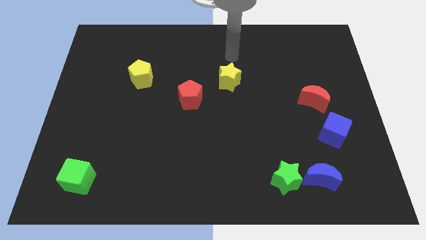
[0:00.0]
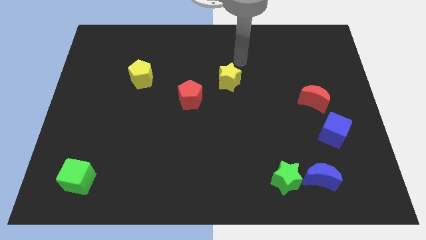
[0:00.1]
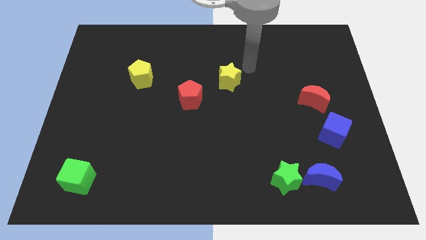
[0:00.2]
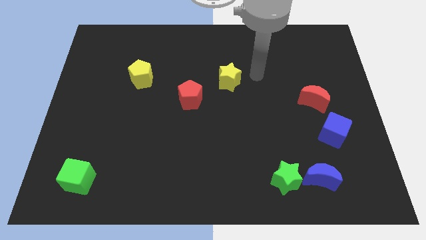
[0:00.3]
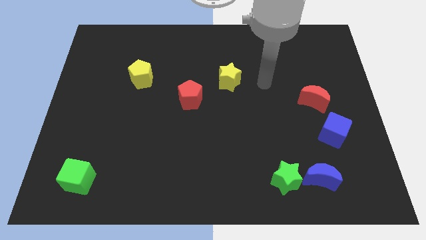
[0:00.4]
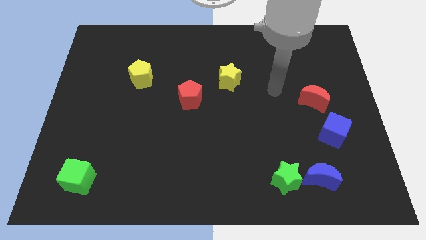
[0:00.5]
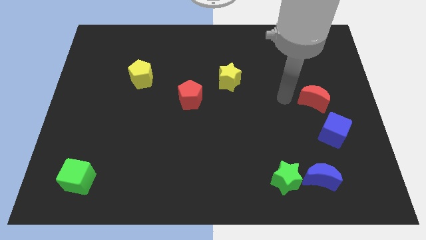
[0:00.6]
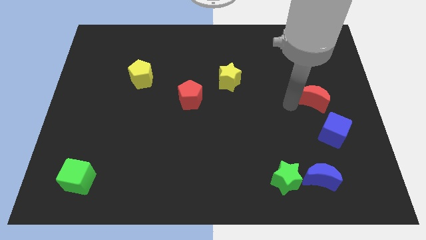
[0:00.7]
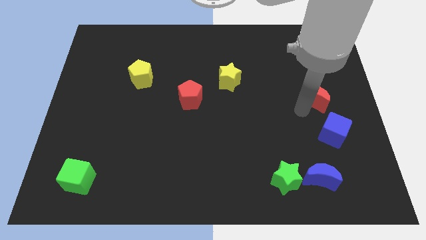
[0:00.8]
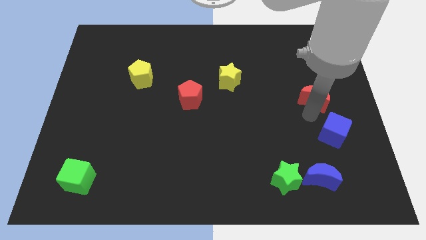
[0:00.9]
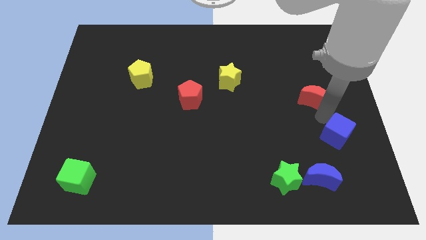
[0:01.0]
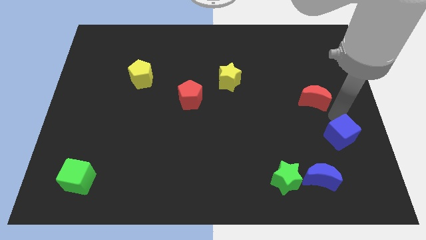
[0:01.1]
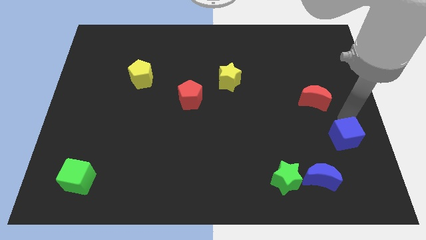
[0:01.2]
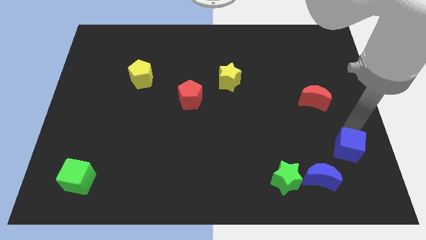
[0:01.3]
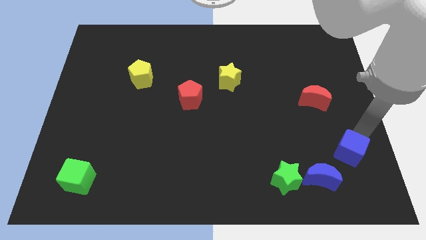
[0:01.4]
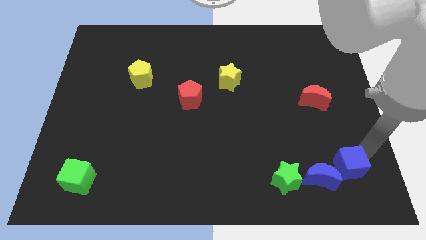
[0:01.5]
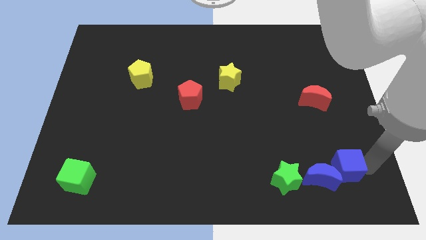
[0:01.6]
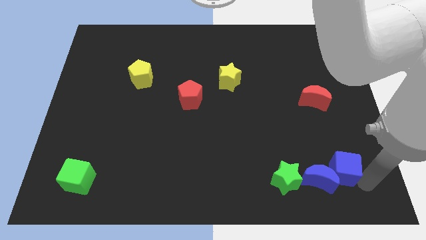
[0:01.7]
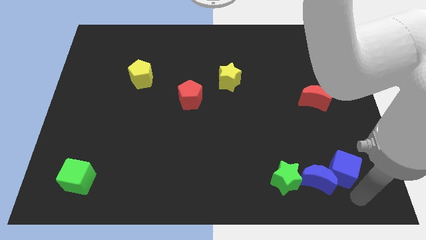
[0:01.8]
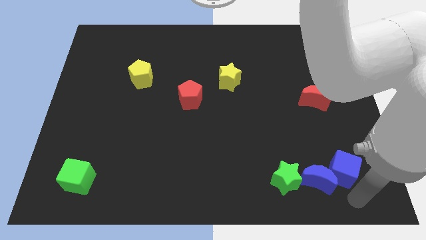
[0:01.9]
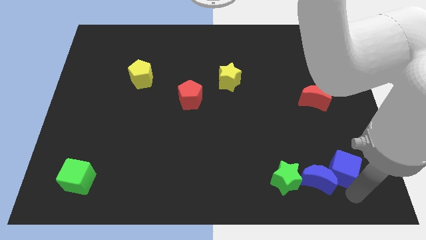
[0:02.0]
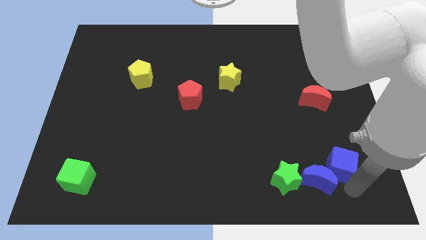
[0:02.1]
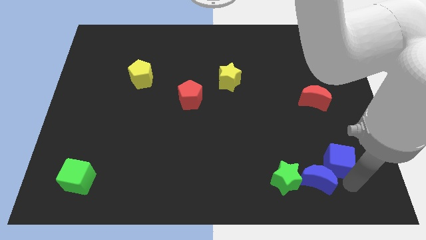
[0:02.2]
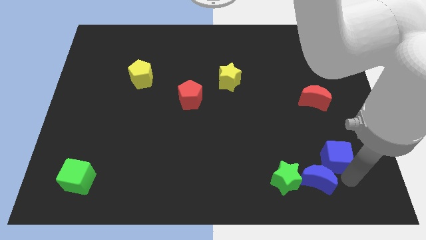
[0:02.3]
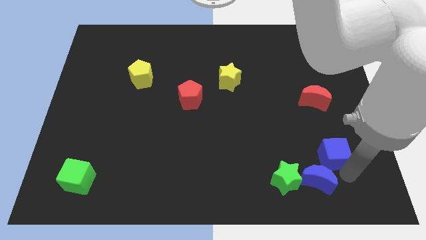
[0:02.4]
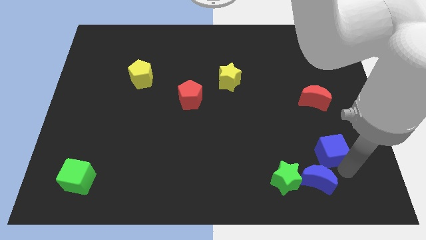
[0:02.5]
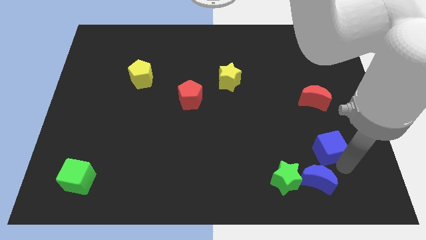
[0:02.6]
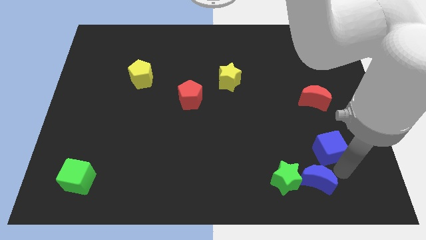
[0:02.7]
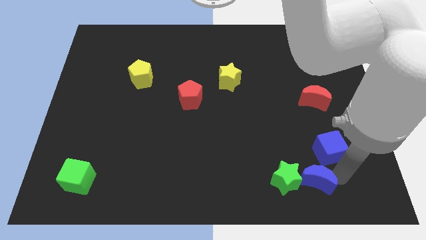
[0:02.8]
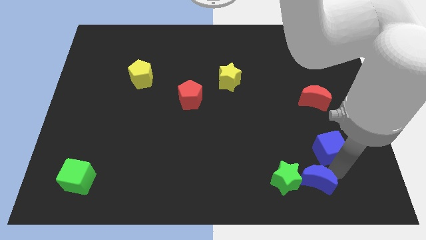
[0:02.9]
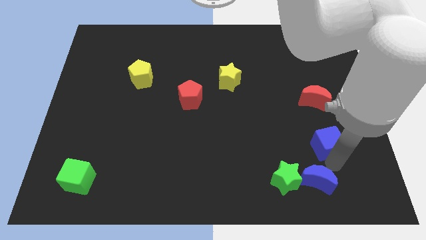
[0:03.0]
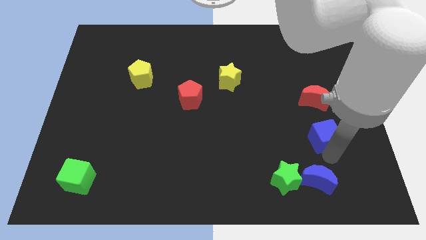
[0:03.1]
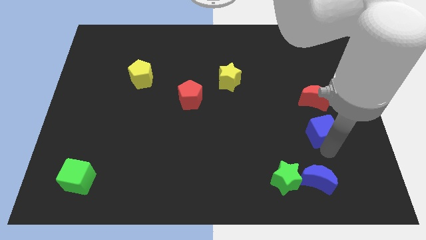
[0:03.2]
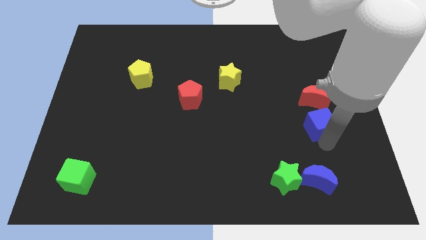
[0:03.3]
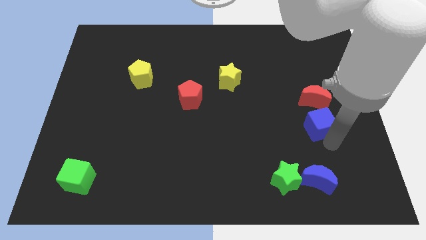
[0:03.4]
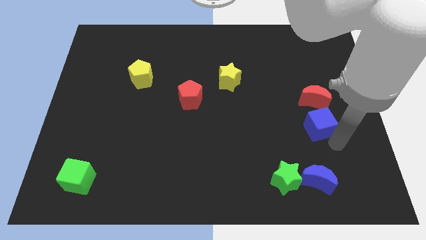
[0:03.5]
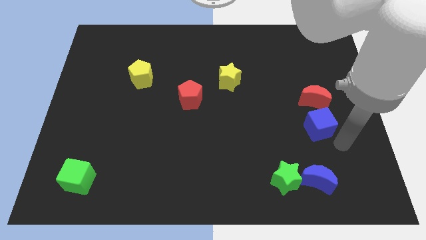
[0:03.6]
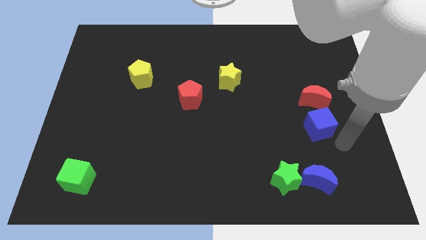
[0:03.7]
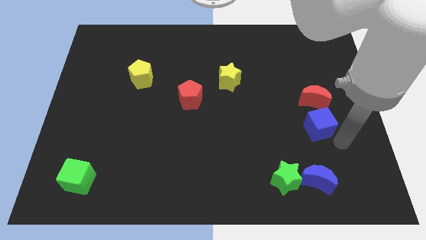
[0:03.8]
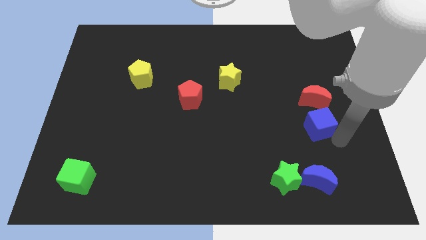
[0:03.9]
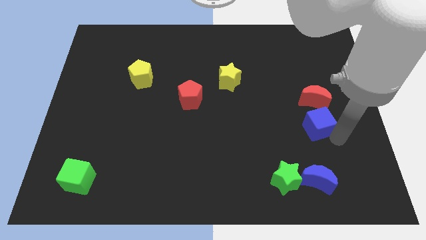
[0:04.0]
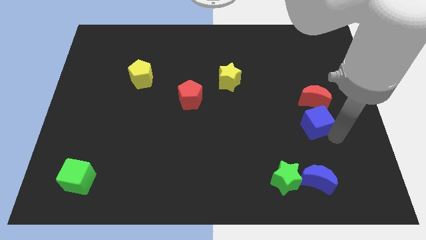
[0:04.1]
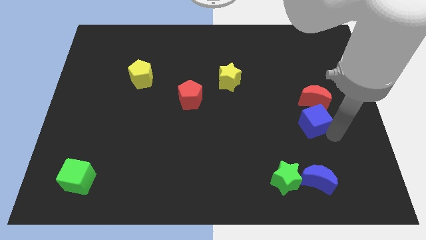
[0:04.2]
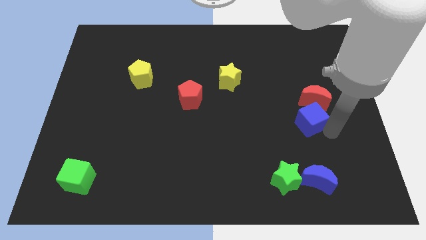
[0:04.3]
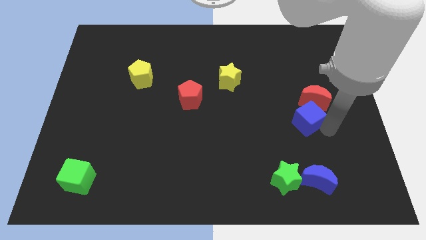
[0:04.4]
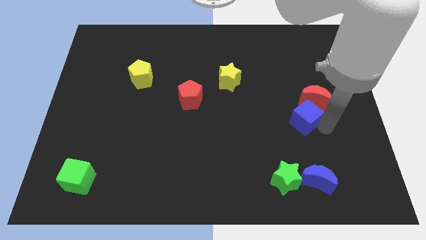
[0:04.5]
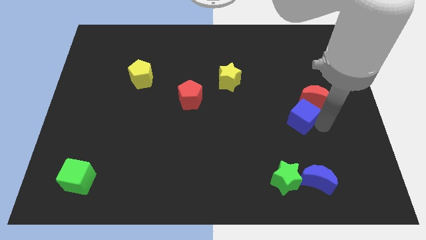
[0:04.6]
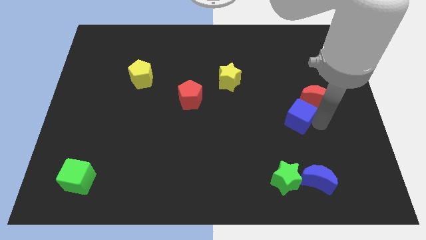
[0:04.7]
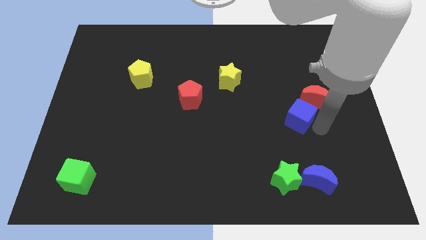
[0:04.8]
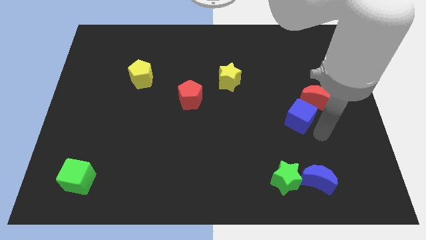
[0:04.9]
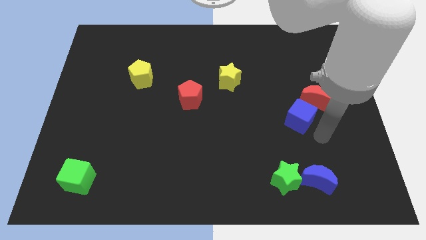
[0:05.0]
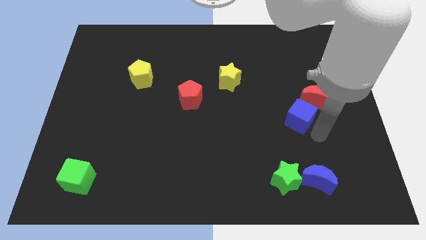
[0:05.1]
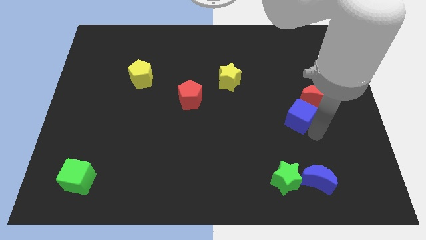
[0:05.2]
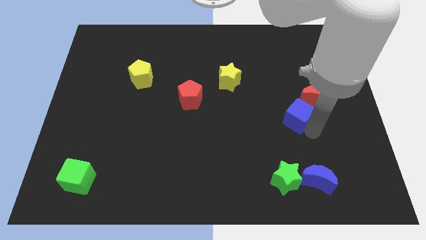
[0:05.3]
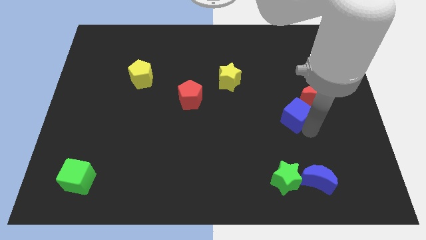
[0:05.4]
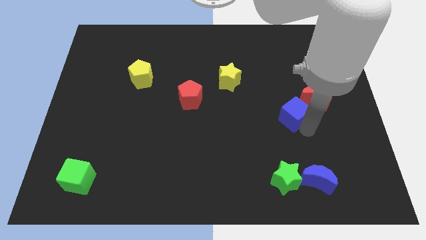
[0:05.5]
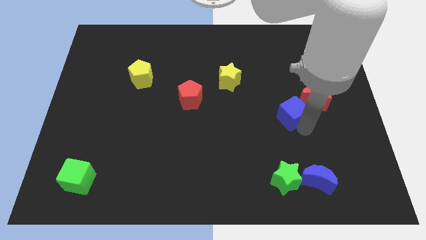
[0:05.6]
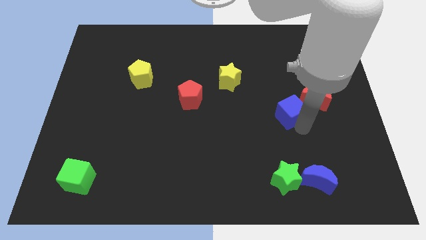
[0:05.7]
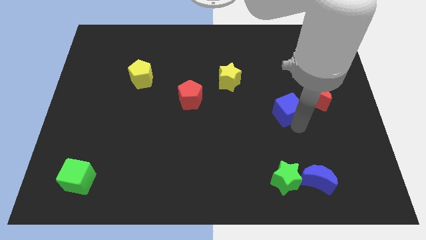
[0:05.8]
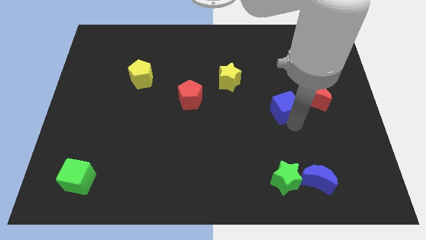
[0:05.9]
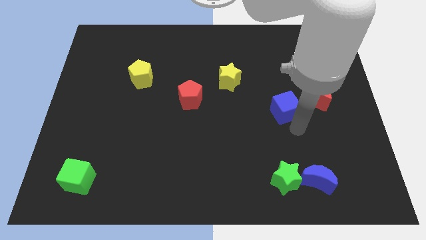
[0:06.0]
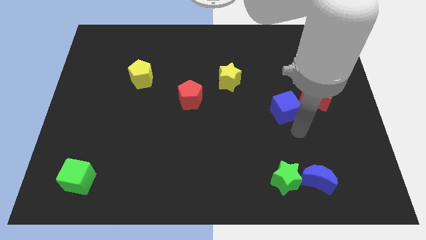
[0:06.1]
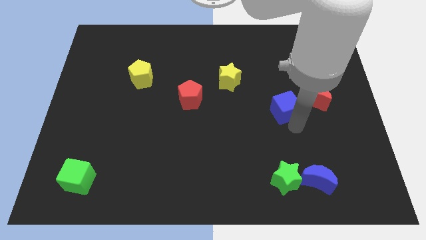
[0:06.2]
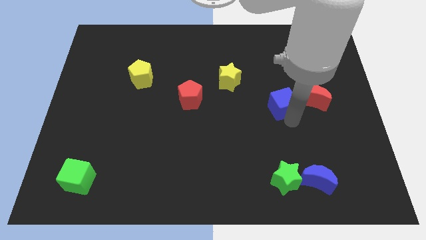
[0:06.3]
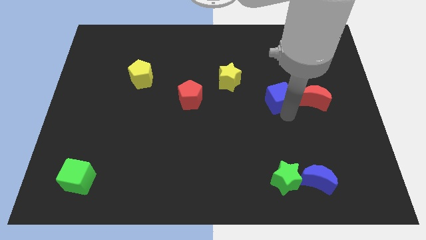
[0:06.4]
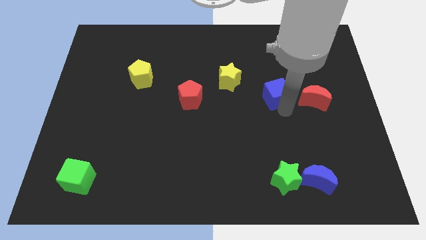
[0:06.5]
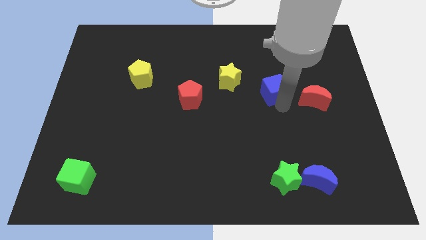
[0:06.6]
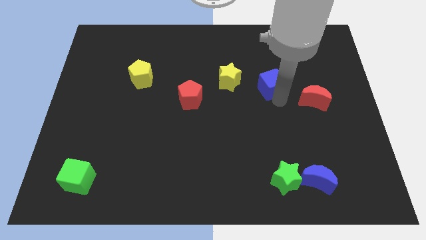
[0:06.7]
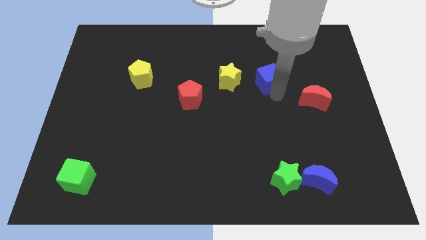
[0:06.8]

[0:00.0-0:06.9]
slide the blue cube up and then left

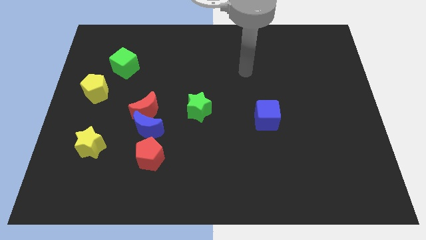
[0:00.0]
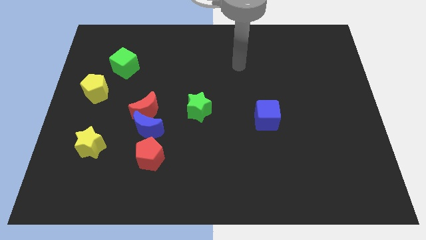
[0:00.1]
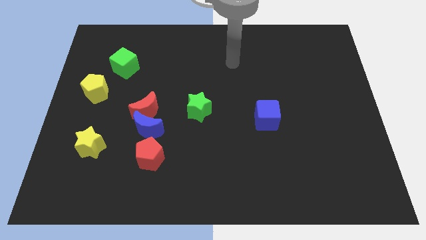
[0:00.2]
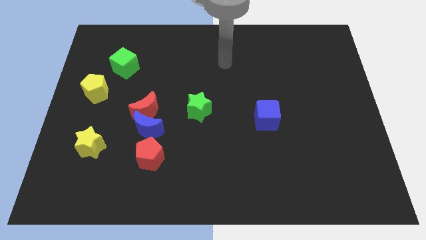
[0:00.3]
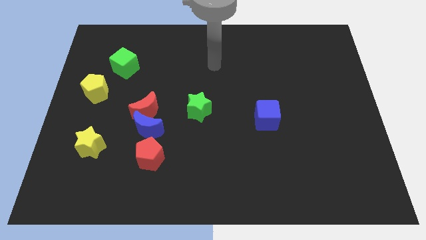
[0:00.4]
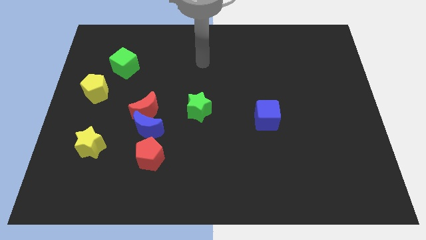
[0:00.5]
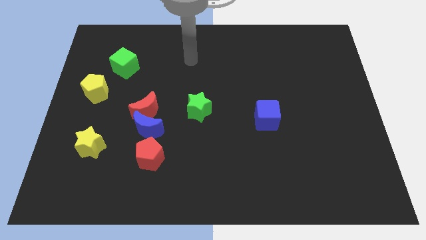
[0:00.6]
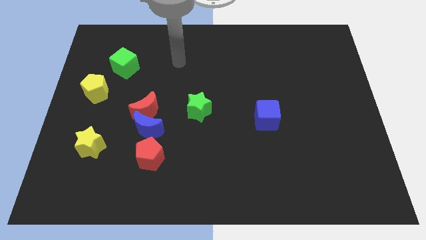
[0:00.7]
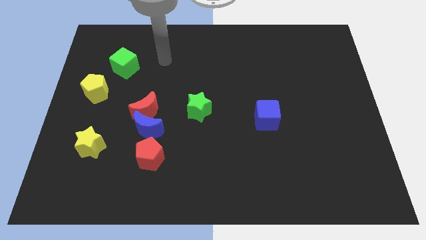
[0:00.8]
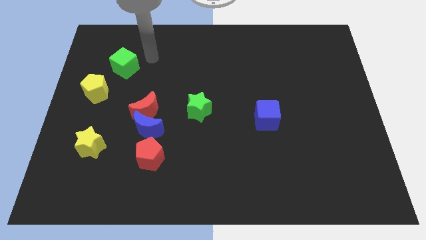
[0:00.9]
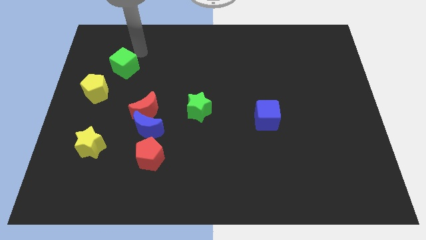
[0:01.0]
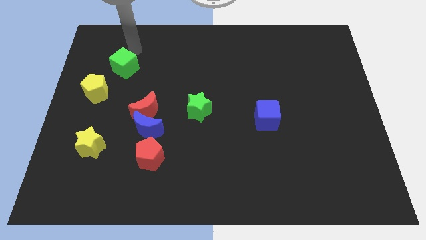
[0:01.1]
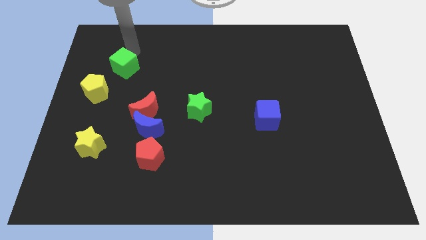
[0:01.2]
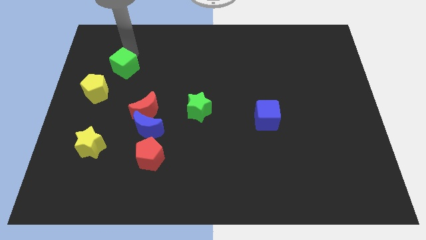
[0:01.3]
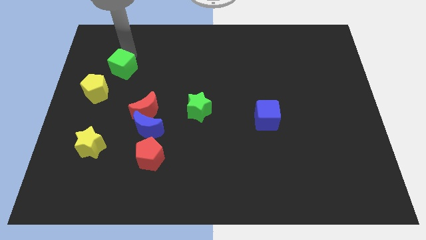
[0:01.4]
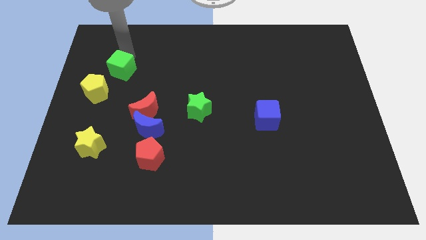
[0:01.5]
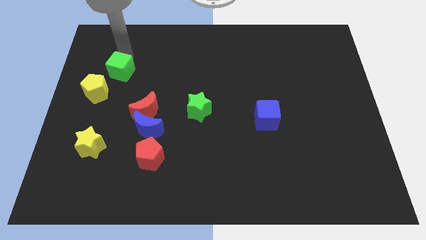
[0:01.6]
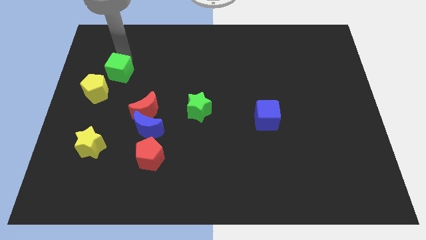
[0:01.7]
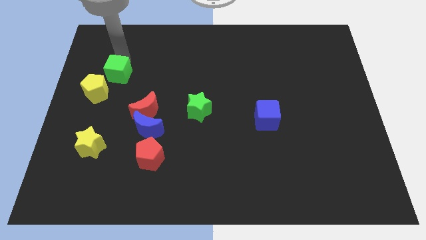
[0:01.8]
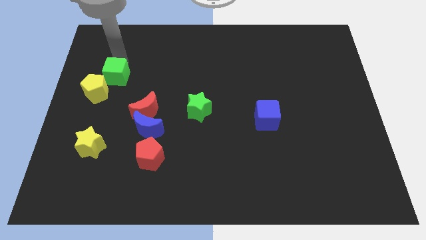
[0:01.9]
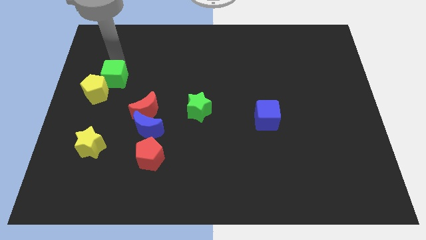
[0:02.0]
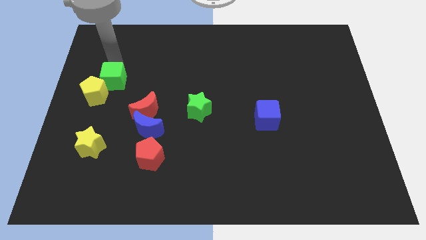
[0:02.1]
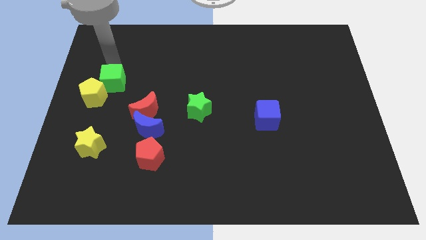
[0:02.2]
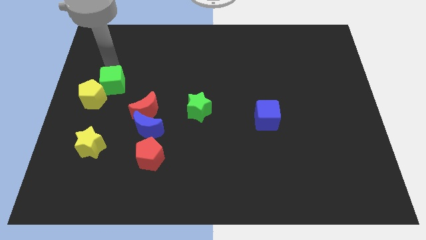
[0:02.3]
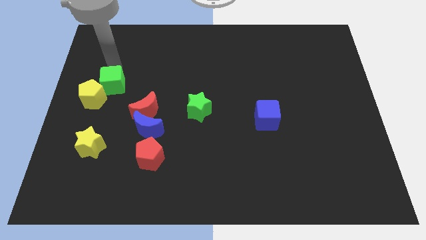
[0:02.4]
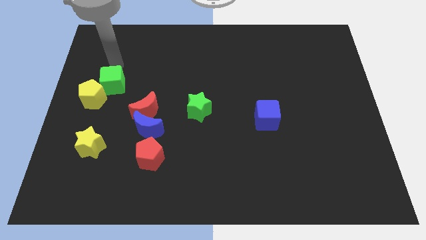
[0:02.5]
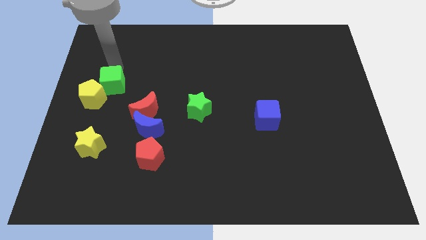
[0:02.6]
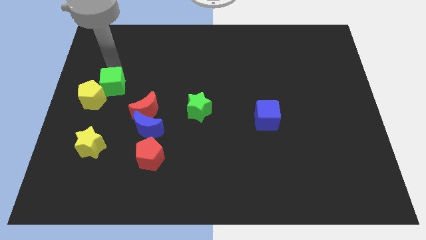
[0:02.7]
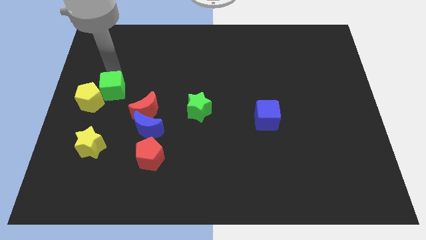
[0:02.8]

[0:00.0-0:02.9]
move the green cube a bit downwards
